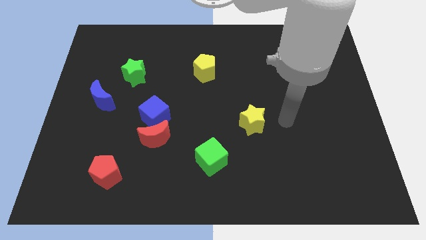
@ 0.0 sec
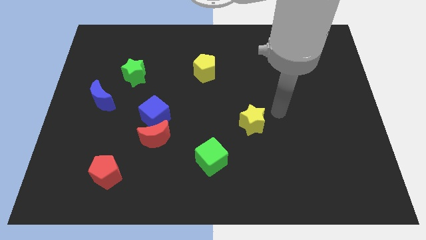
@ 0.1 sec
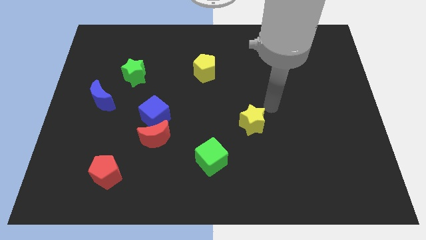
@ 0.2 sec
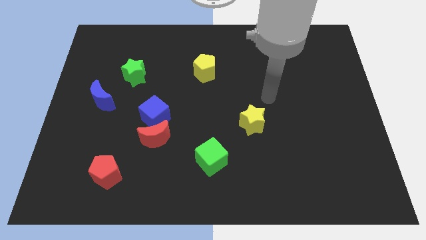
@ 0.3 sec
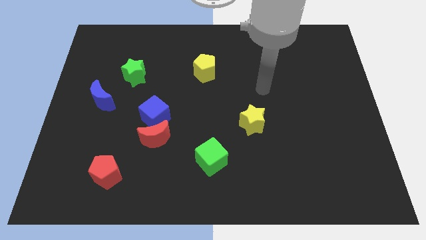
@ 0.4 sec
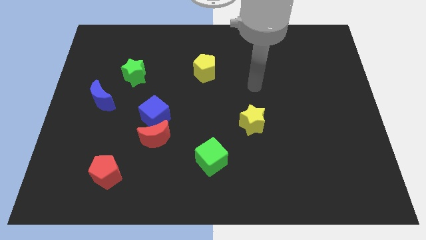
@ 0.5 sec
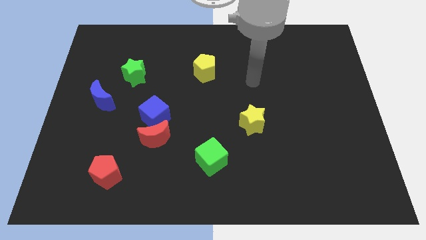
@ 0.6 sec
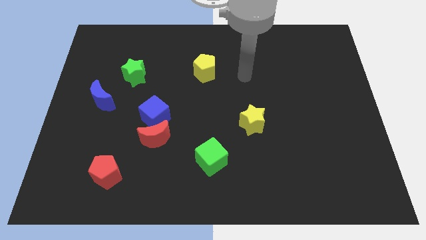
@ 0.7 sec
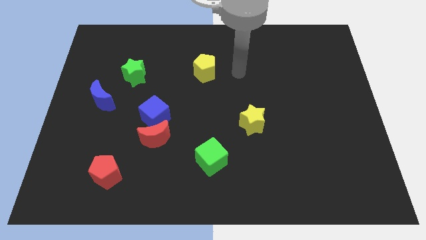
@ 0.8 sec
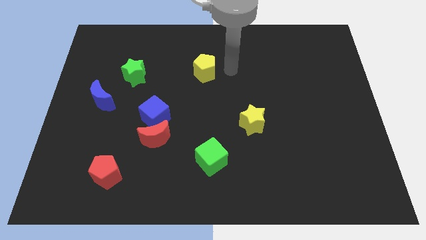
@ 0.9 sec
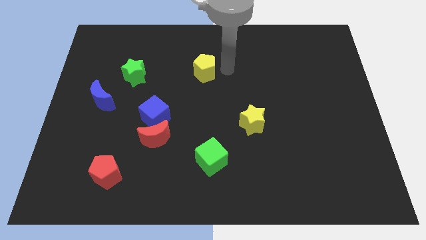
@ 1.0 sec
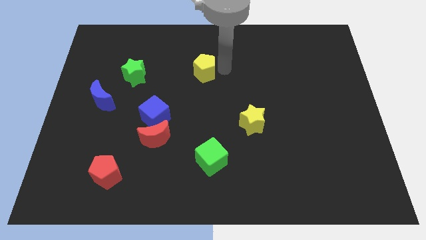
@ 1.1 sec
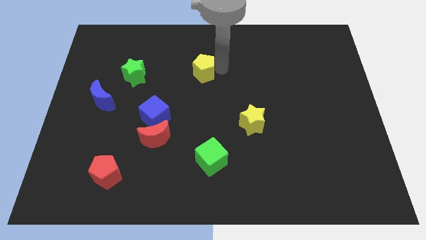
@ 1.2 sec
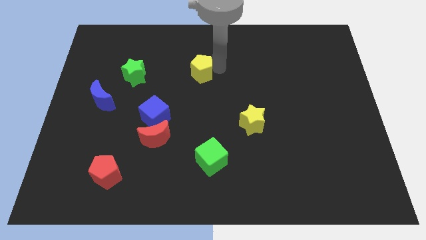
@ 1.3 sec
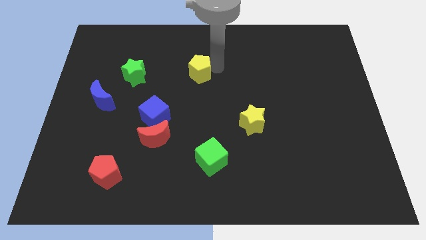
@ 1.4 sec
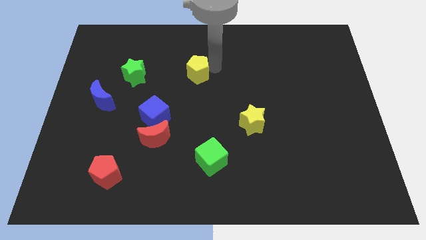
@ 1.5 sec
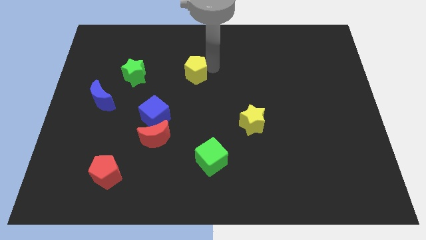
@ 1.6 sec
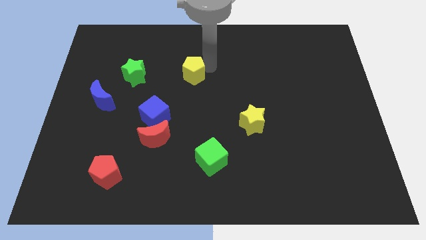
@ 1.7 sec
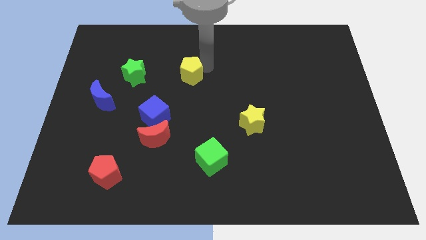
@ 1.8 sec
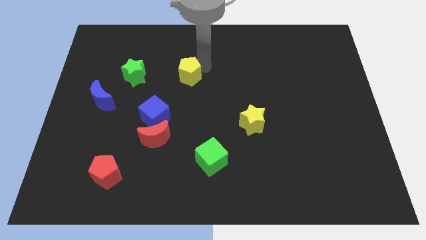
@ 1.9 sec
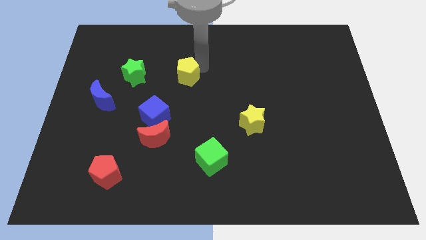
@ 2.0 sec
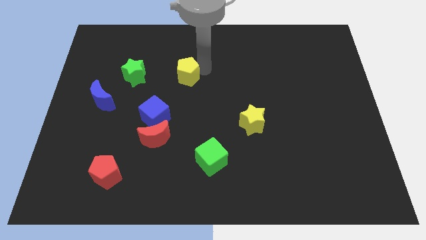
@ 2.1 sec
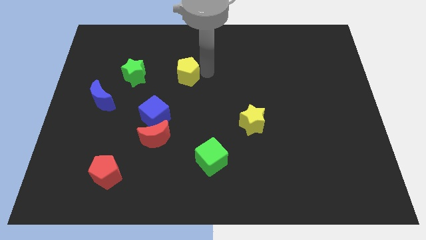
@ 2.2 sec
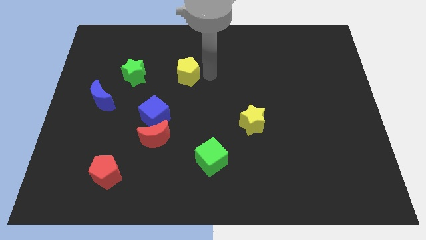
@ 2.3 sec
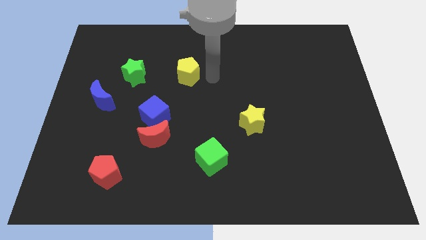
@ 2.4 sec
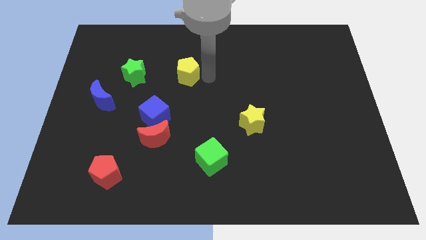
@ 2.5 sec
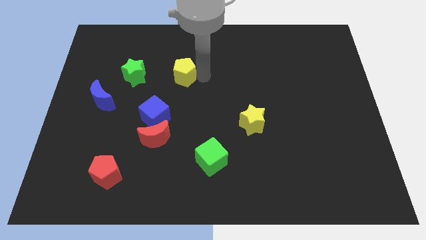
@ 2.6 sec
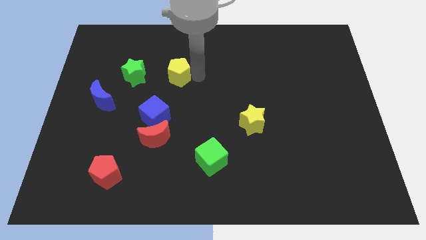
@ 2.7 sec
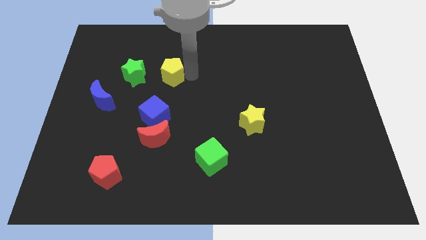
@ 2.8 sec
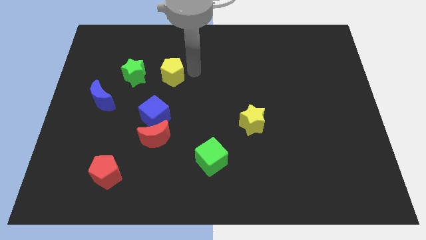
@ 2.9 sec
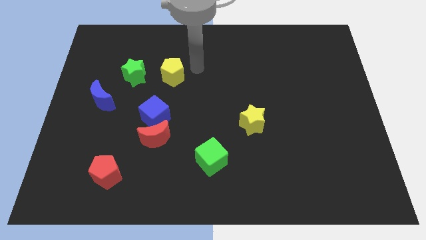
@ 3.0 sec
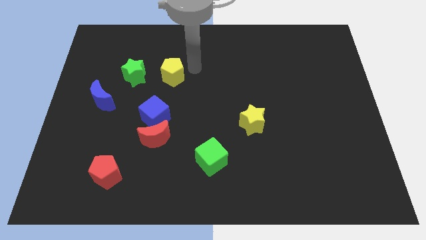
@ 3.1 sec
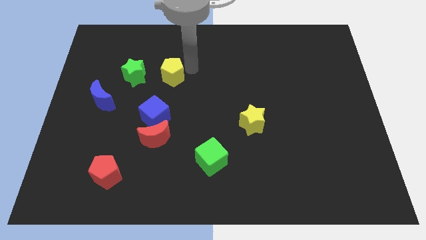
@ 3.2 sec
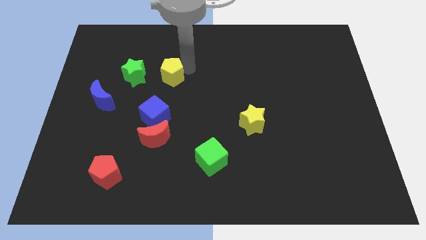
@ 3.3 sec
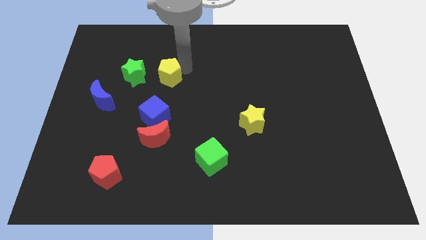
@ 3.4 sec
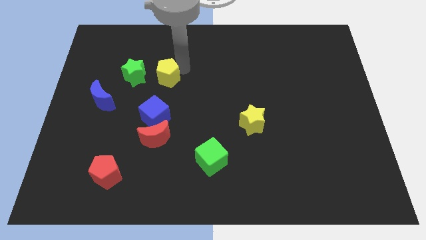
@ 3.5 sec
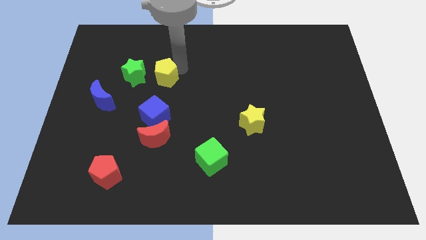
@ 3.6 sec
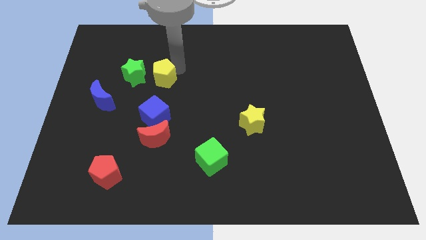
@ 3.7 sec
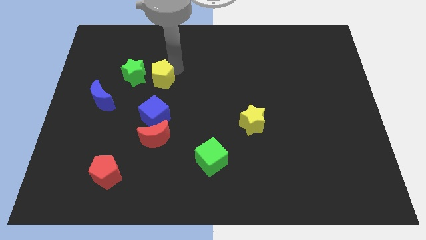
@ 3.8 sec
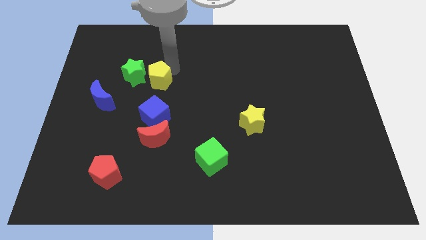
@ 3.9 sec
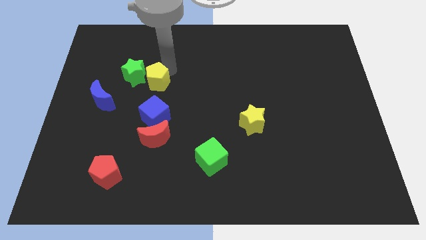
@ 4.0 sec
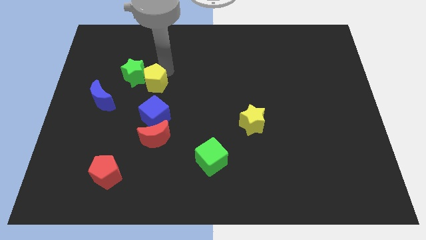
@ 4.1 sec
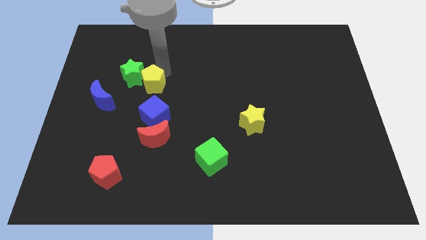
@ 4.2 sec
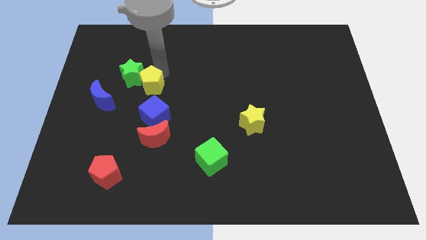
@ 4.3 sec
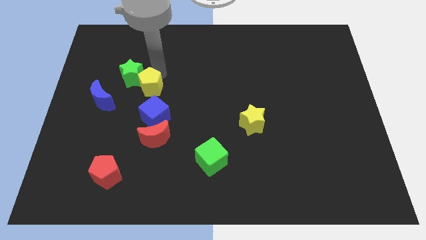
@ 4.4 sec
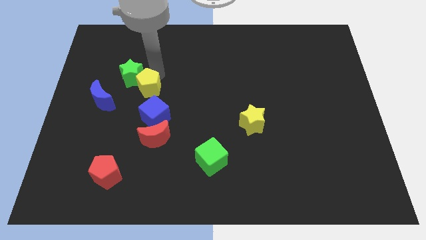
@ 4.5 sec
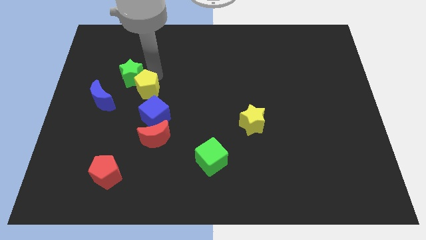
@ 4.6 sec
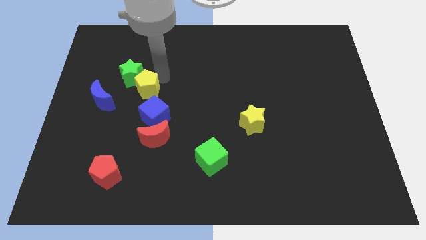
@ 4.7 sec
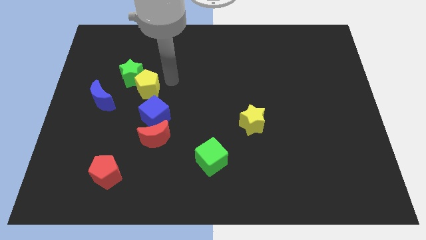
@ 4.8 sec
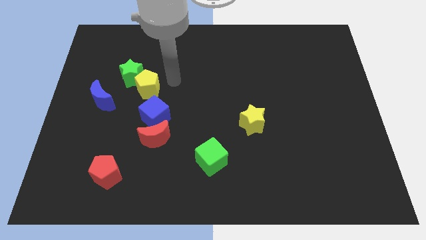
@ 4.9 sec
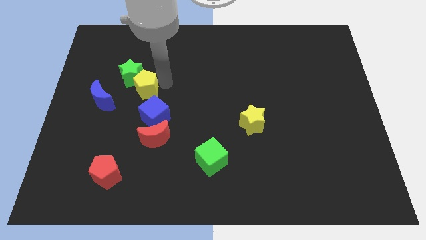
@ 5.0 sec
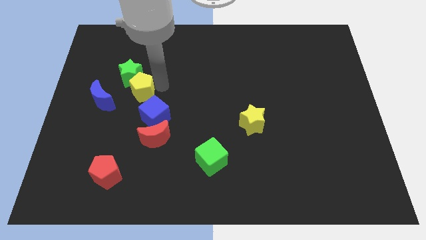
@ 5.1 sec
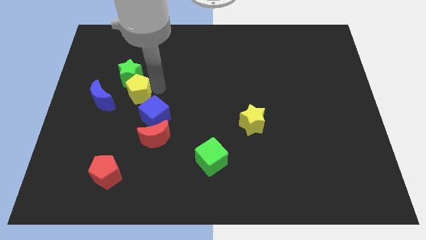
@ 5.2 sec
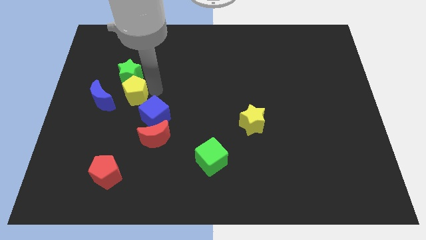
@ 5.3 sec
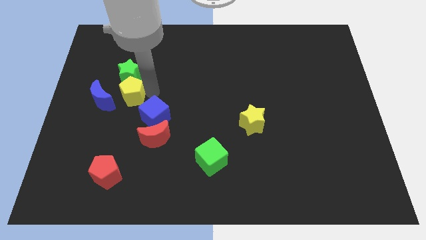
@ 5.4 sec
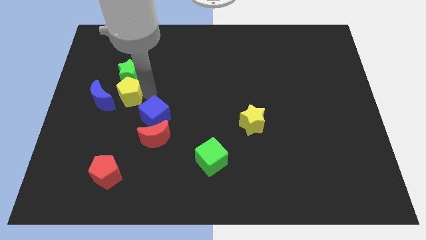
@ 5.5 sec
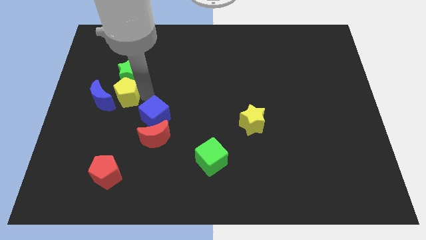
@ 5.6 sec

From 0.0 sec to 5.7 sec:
push the yellow pentagon next to the blue moon

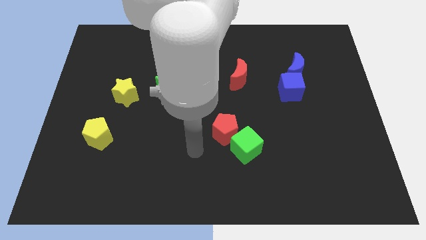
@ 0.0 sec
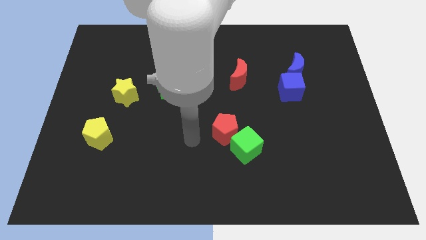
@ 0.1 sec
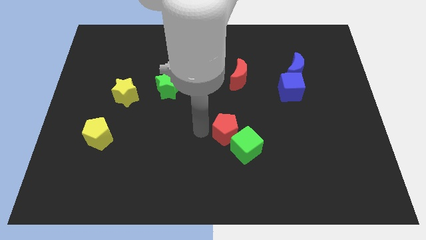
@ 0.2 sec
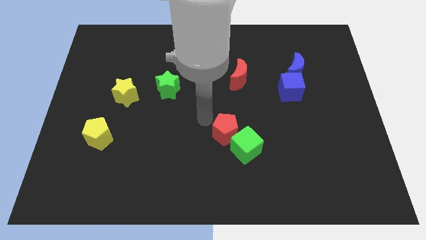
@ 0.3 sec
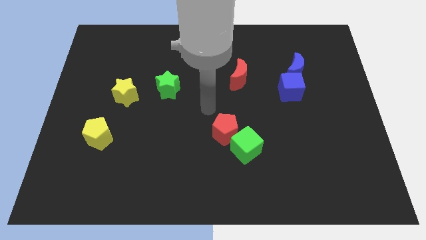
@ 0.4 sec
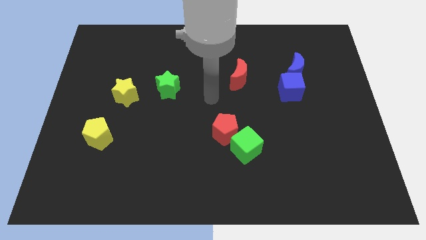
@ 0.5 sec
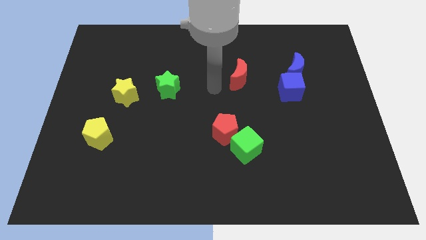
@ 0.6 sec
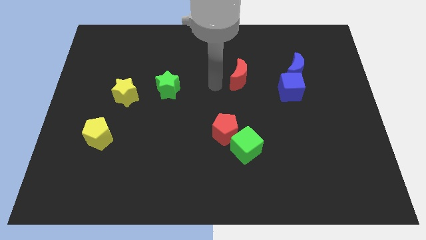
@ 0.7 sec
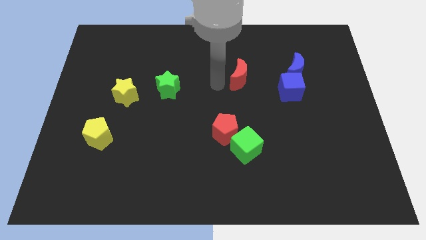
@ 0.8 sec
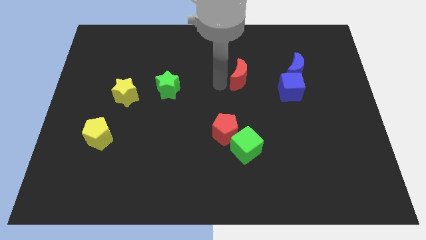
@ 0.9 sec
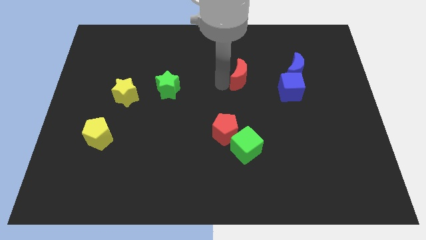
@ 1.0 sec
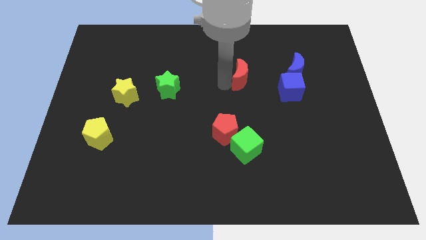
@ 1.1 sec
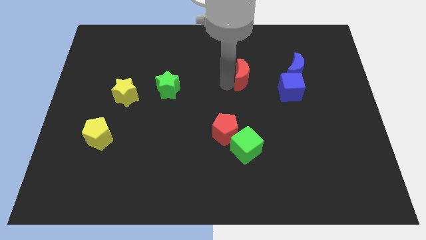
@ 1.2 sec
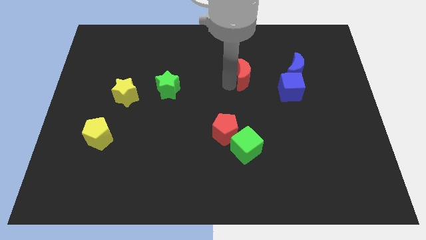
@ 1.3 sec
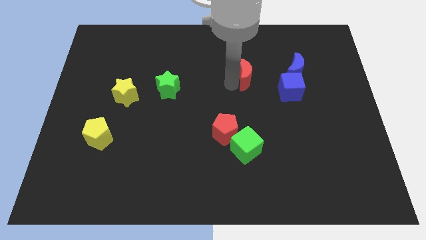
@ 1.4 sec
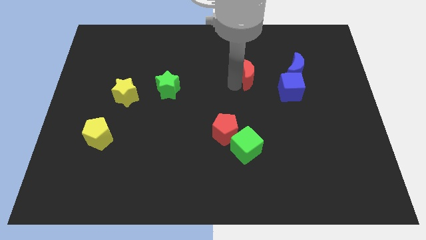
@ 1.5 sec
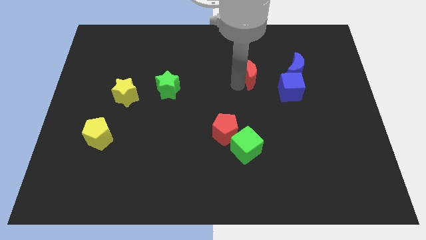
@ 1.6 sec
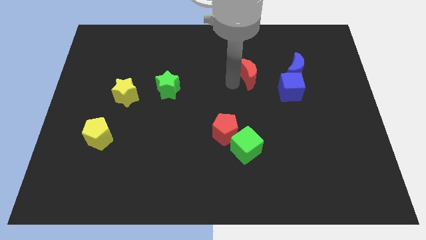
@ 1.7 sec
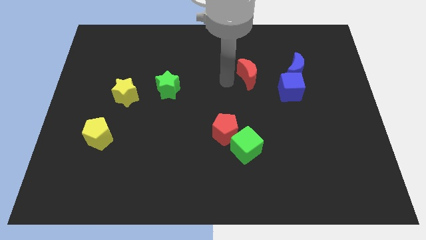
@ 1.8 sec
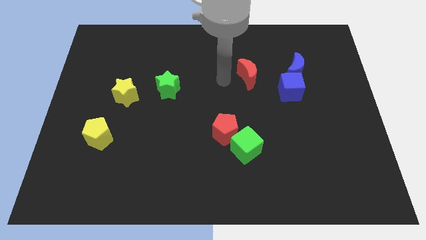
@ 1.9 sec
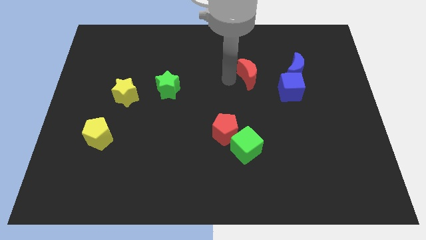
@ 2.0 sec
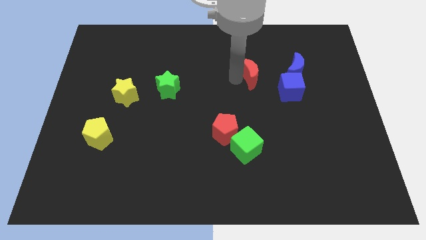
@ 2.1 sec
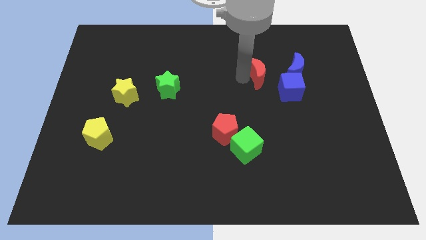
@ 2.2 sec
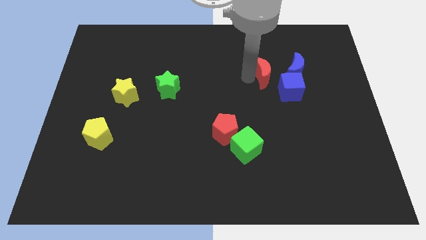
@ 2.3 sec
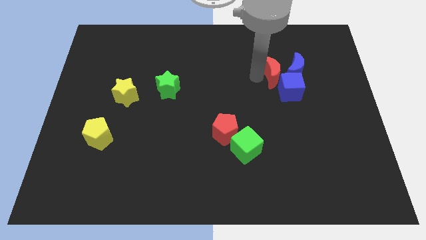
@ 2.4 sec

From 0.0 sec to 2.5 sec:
slide the red moon towards the blue moon
